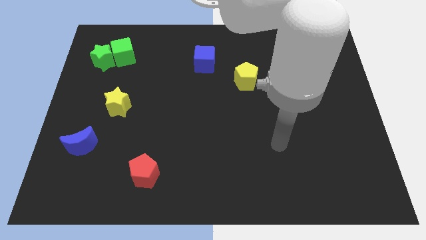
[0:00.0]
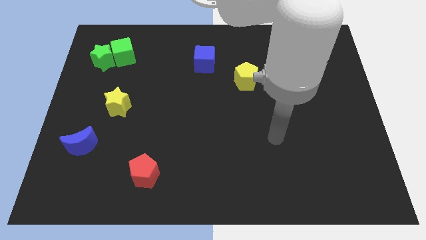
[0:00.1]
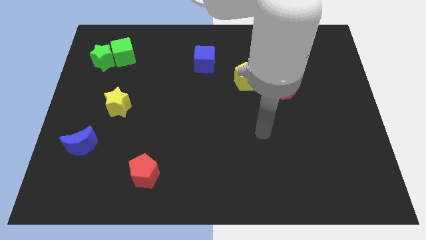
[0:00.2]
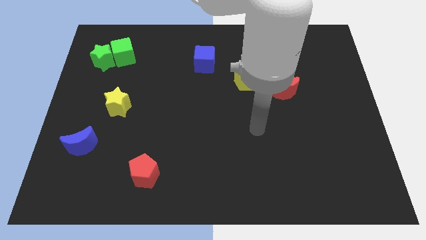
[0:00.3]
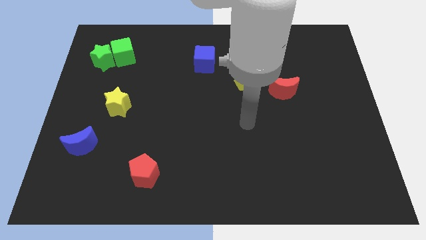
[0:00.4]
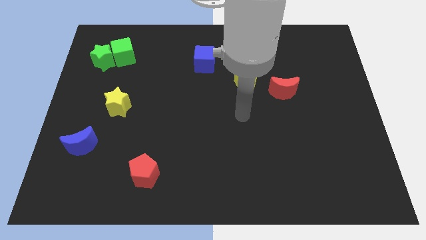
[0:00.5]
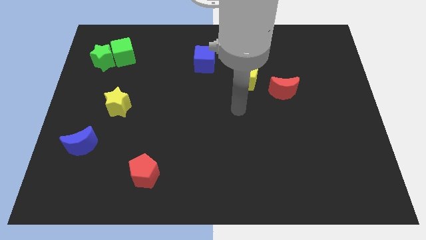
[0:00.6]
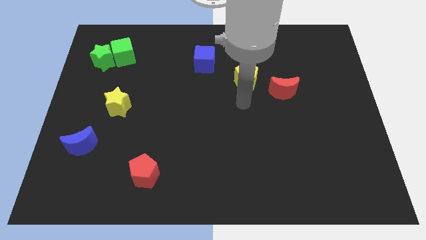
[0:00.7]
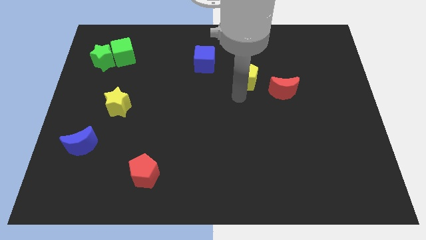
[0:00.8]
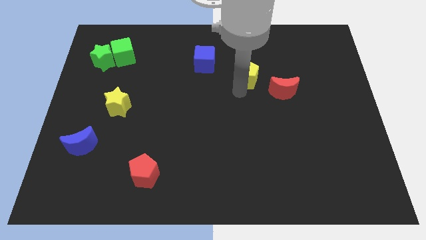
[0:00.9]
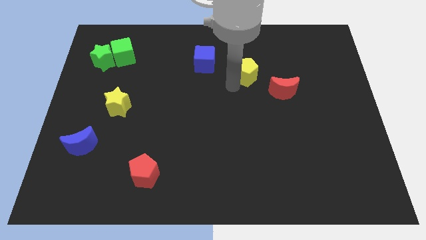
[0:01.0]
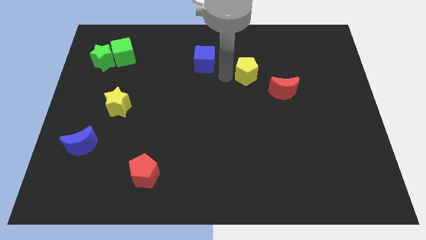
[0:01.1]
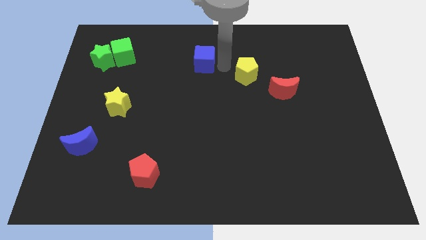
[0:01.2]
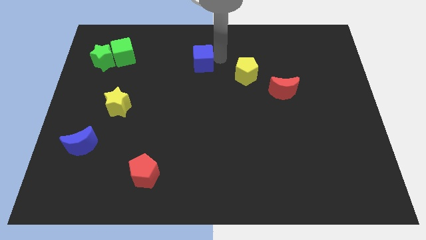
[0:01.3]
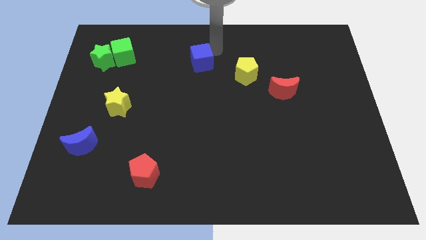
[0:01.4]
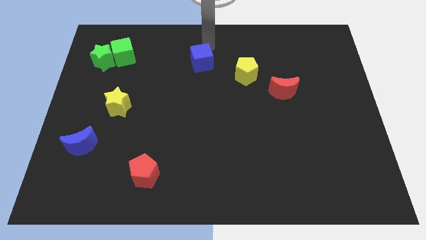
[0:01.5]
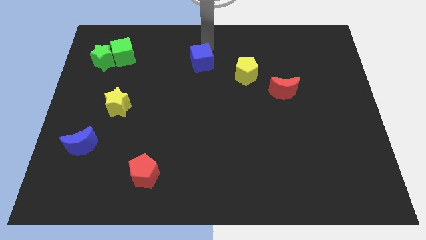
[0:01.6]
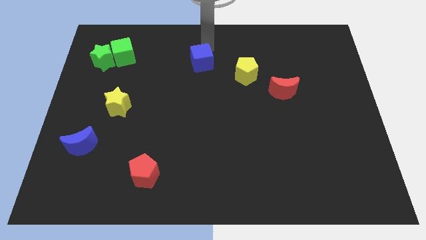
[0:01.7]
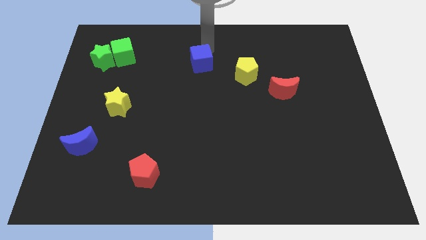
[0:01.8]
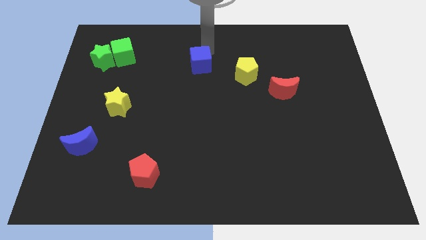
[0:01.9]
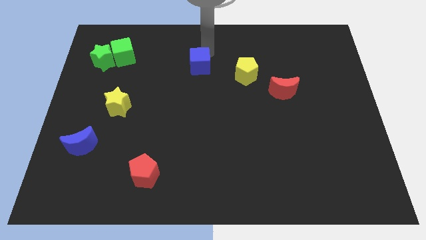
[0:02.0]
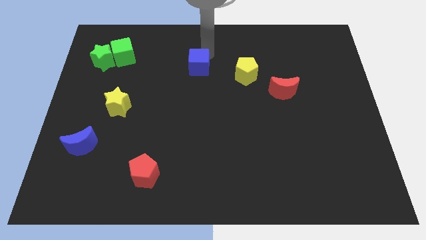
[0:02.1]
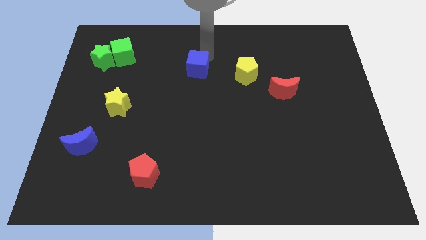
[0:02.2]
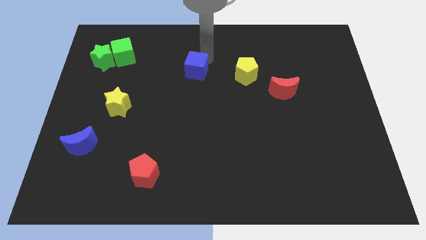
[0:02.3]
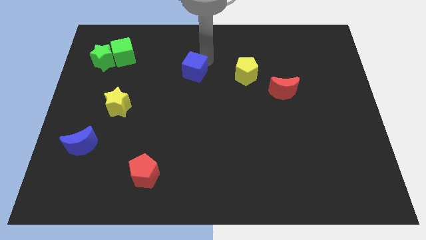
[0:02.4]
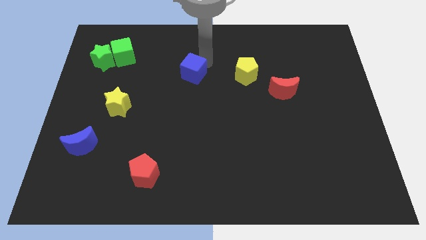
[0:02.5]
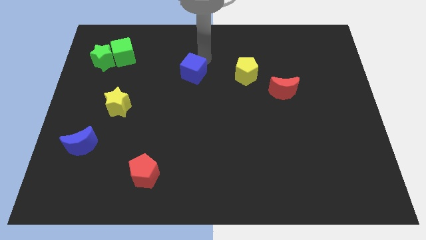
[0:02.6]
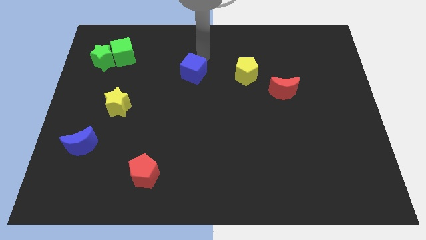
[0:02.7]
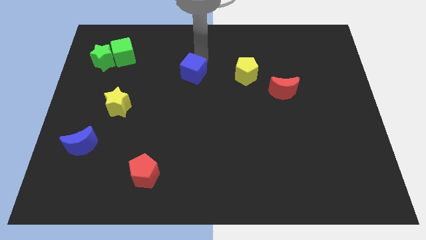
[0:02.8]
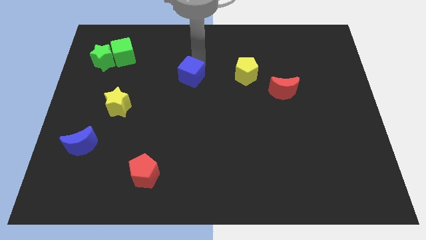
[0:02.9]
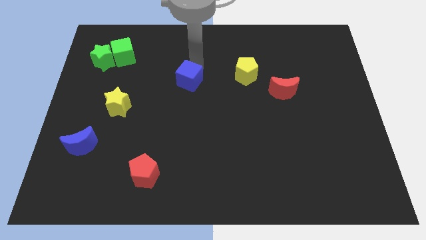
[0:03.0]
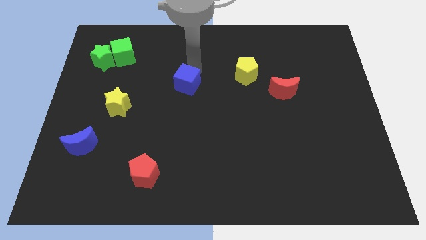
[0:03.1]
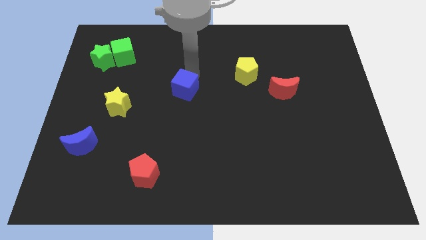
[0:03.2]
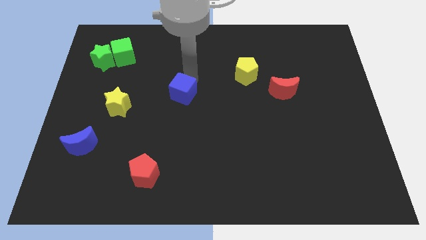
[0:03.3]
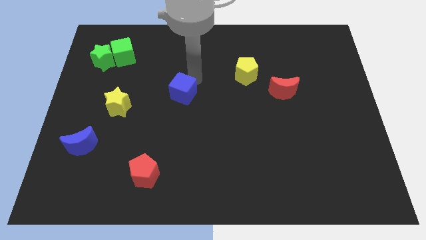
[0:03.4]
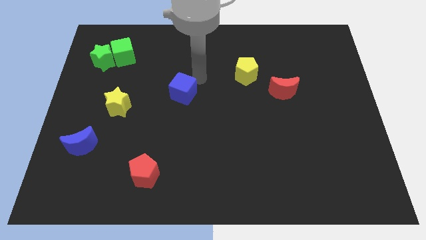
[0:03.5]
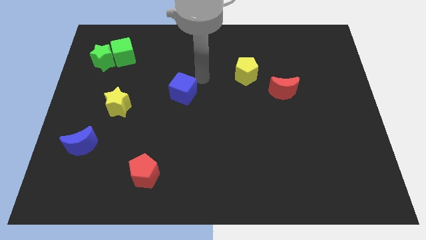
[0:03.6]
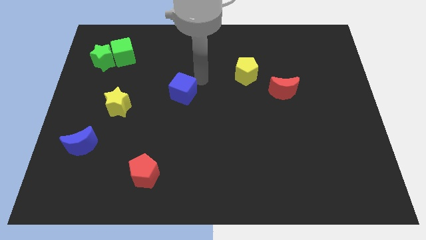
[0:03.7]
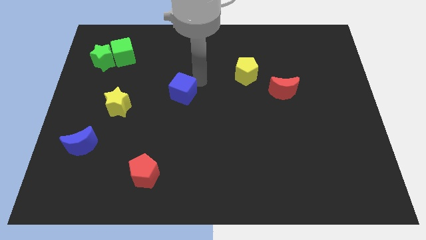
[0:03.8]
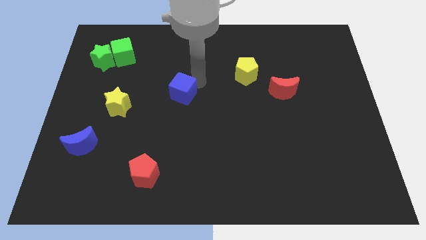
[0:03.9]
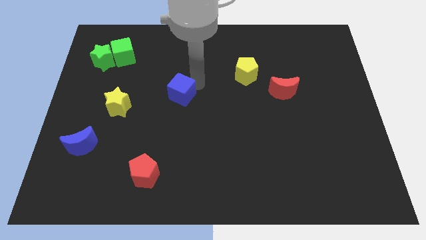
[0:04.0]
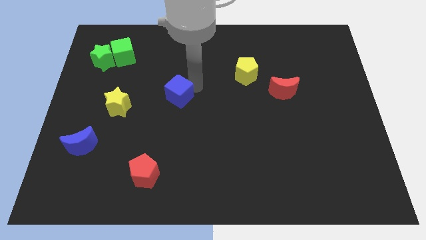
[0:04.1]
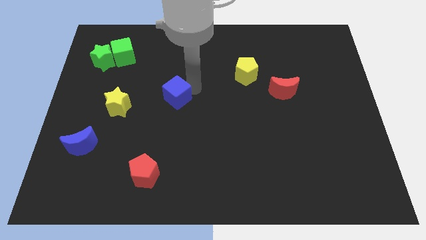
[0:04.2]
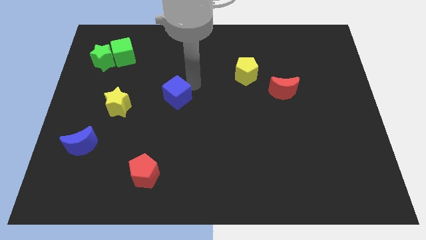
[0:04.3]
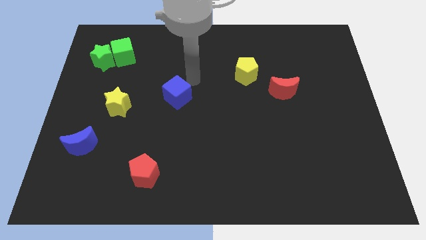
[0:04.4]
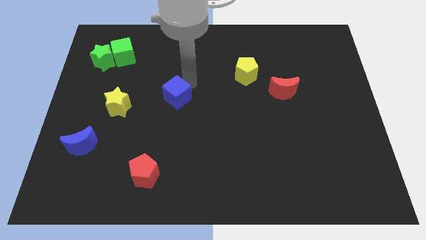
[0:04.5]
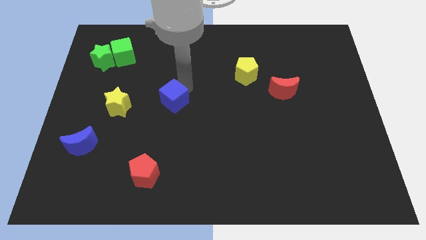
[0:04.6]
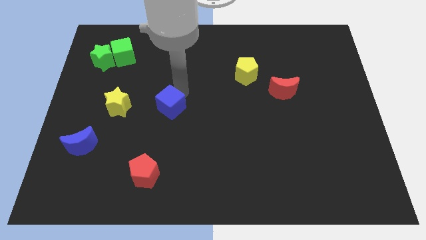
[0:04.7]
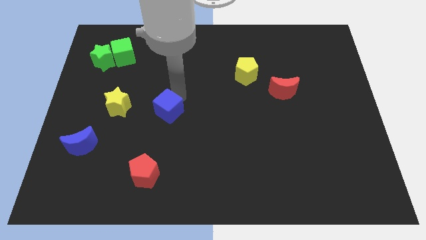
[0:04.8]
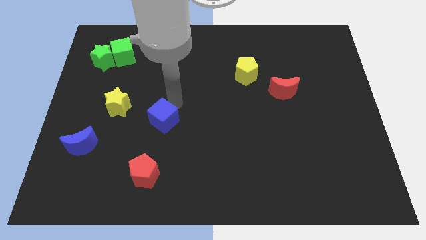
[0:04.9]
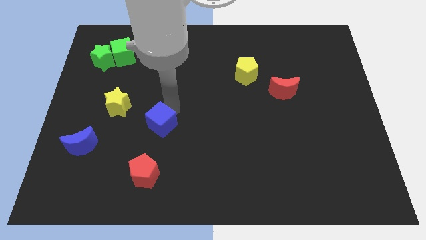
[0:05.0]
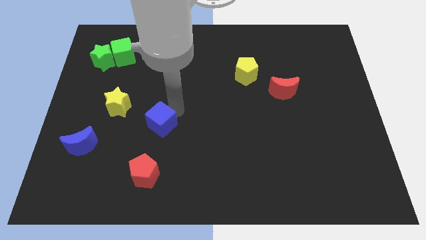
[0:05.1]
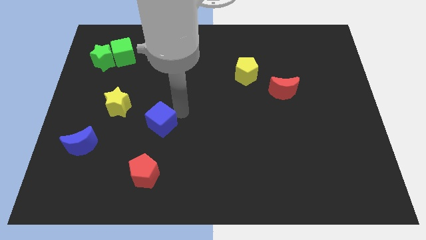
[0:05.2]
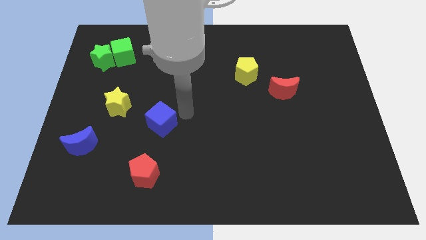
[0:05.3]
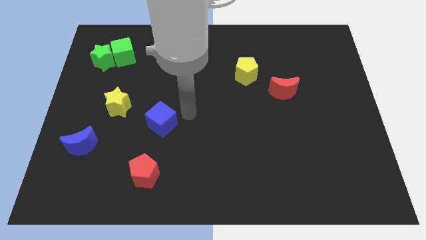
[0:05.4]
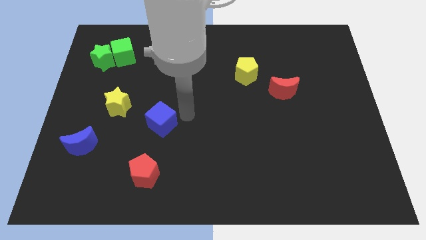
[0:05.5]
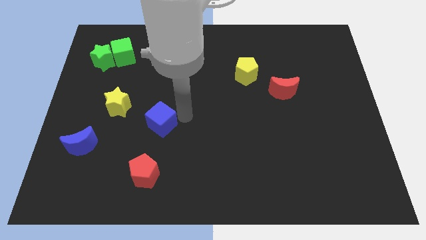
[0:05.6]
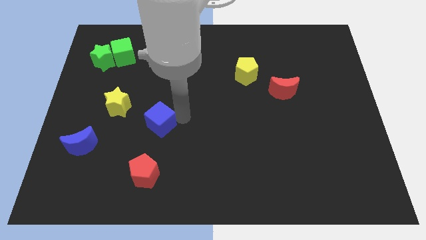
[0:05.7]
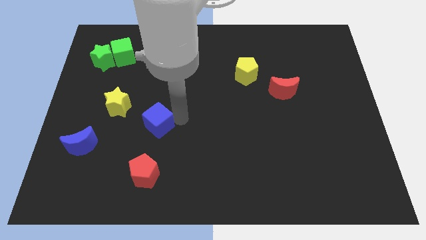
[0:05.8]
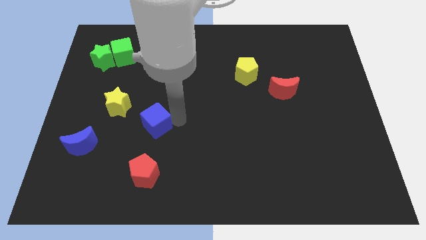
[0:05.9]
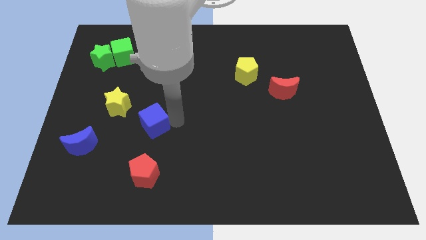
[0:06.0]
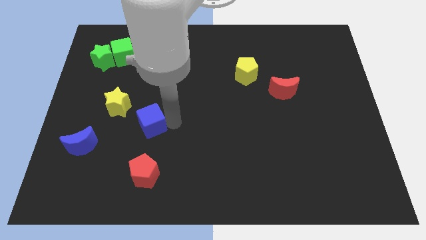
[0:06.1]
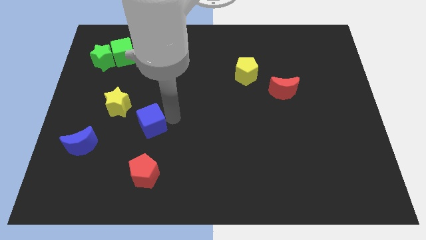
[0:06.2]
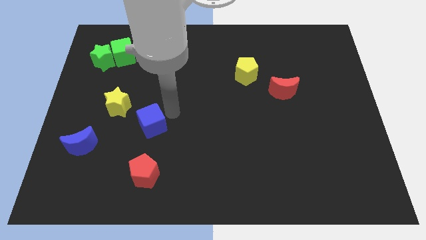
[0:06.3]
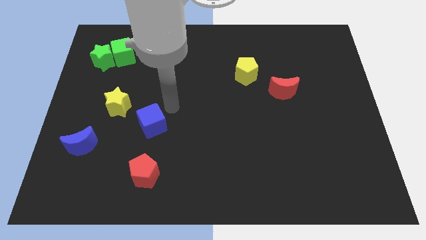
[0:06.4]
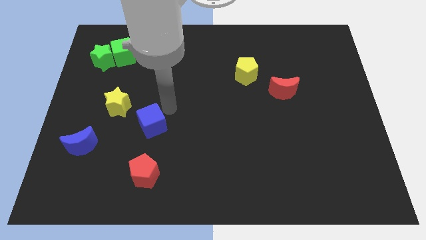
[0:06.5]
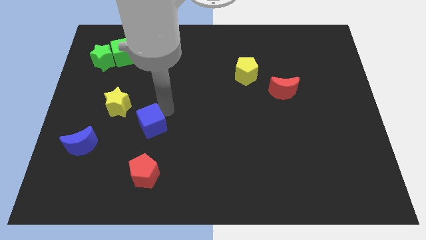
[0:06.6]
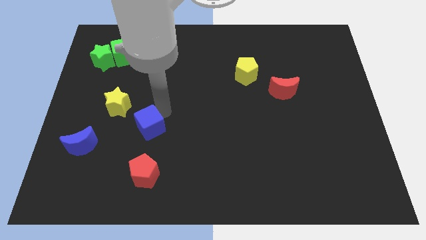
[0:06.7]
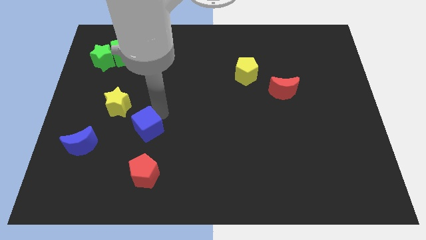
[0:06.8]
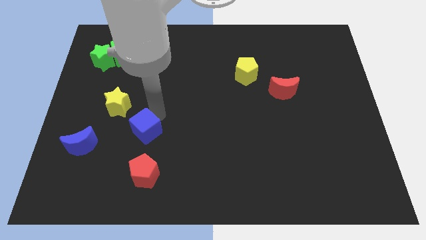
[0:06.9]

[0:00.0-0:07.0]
push the blue cube to the right of the blue moon
